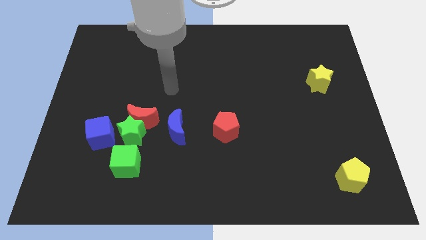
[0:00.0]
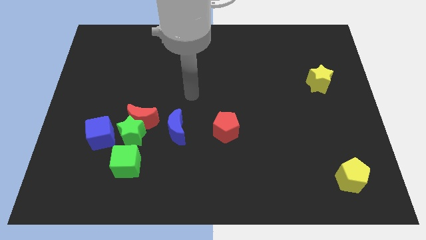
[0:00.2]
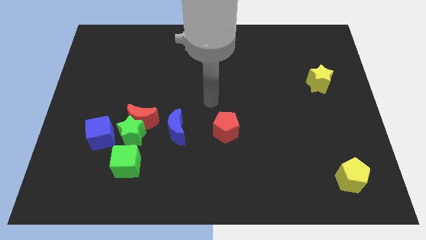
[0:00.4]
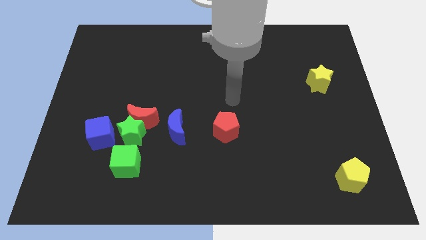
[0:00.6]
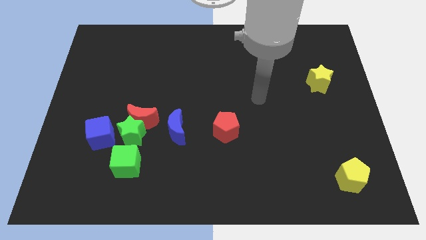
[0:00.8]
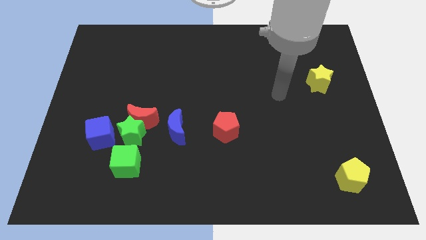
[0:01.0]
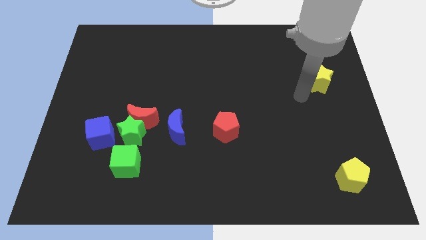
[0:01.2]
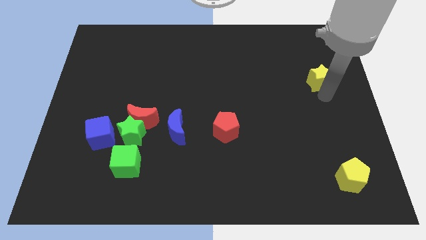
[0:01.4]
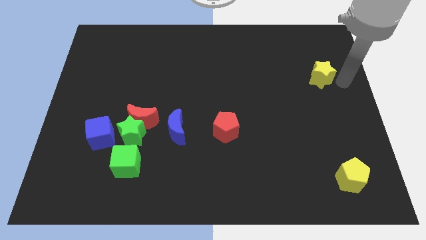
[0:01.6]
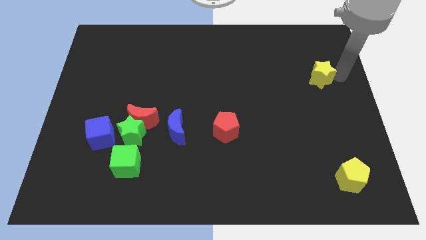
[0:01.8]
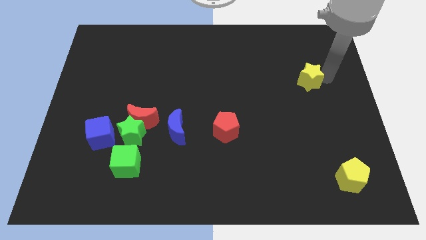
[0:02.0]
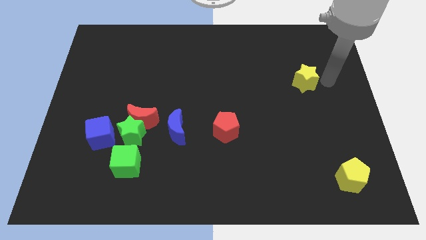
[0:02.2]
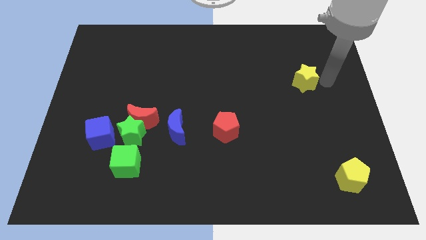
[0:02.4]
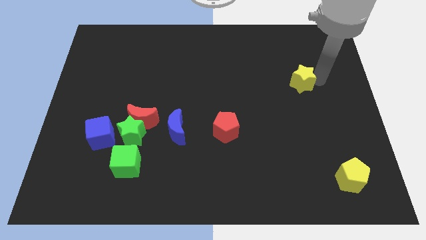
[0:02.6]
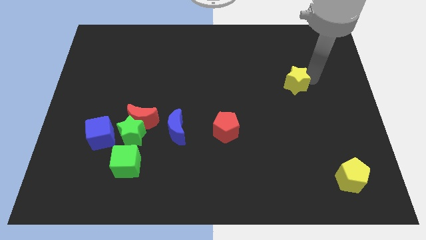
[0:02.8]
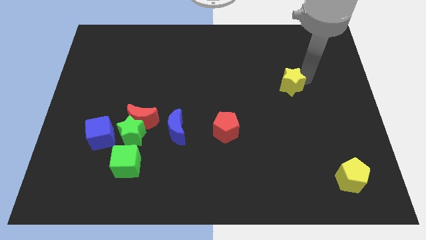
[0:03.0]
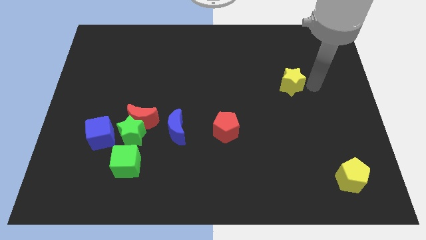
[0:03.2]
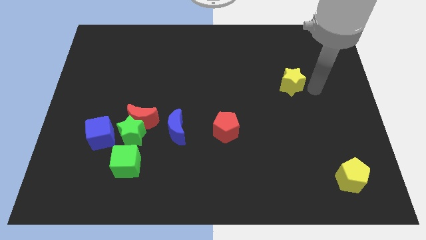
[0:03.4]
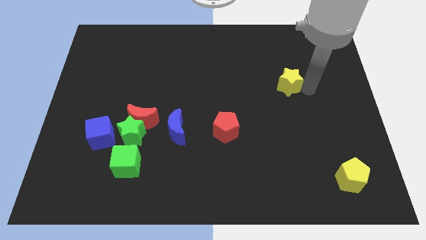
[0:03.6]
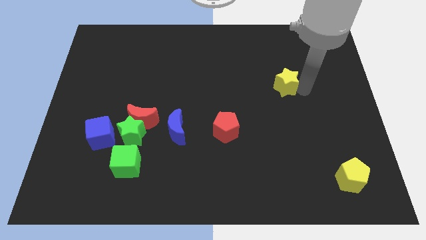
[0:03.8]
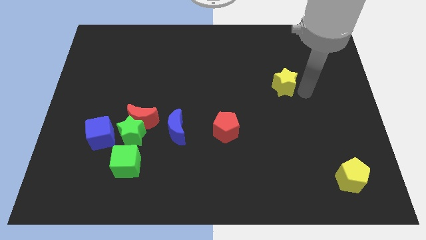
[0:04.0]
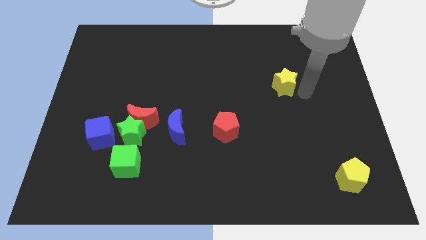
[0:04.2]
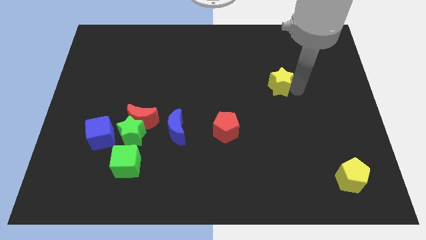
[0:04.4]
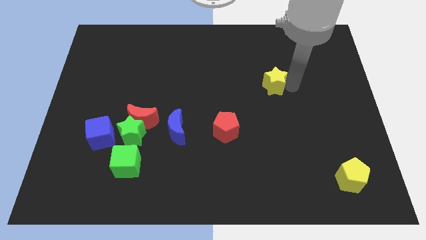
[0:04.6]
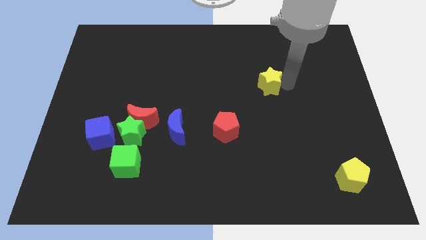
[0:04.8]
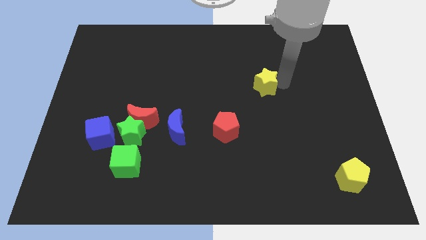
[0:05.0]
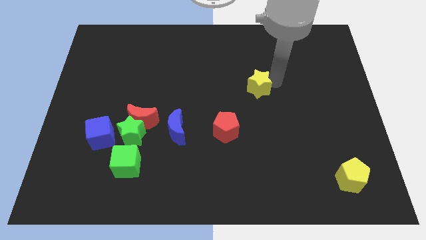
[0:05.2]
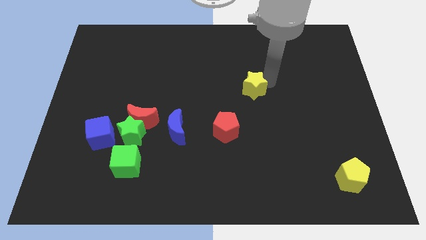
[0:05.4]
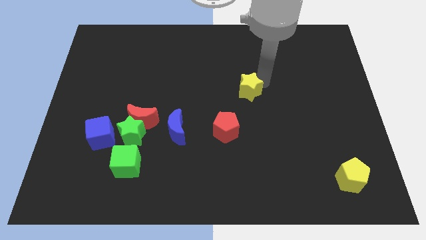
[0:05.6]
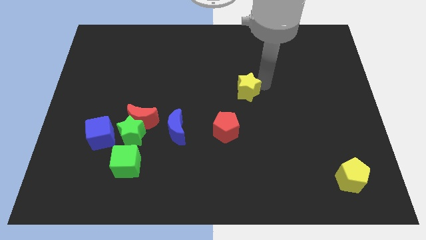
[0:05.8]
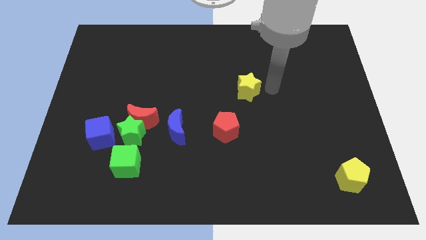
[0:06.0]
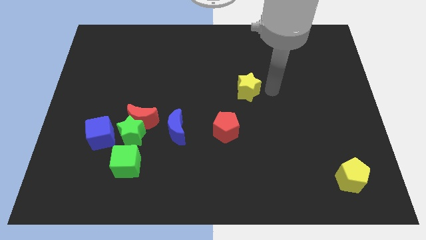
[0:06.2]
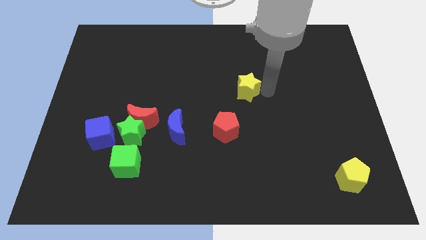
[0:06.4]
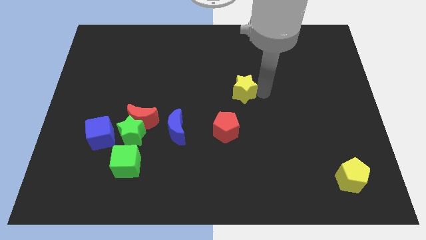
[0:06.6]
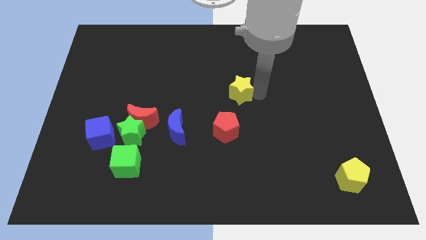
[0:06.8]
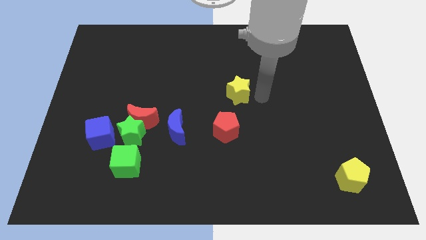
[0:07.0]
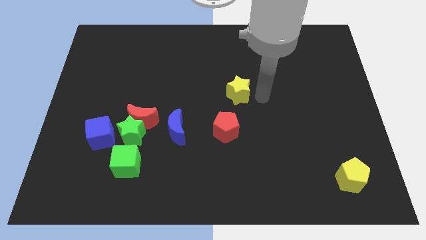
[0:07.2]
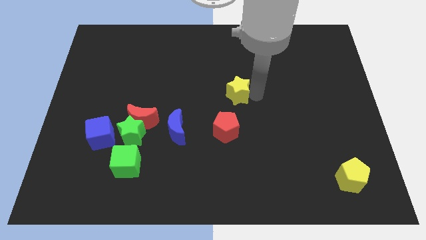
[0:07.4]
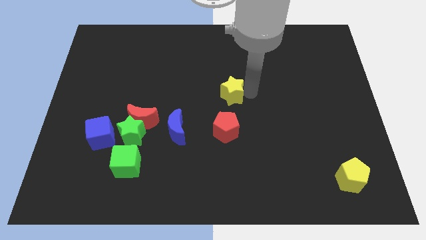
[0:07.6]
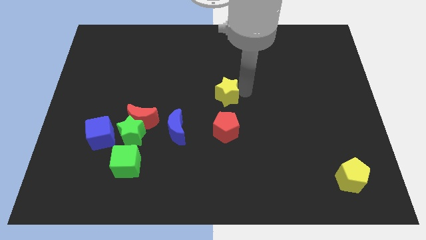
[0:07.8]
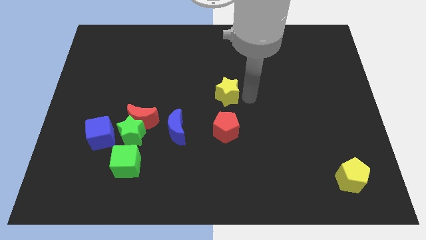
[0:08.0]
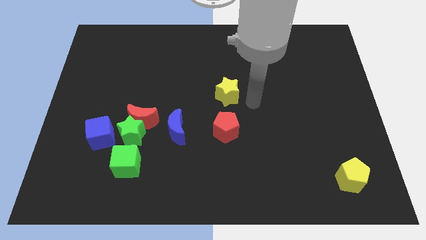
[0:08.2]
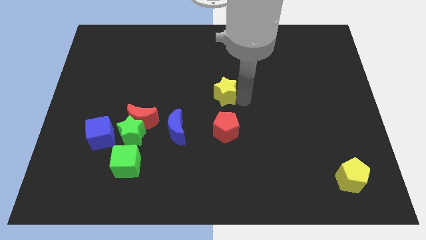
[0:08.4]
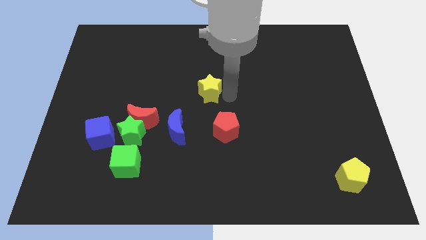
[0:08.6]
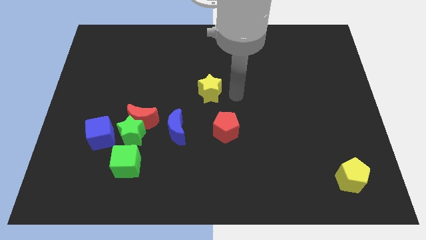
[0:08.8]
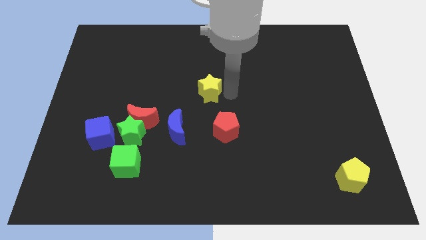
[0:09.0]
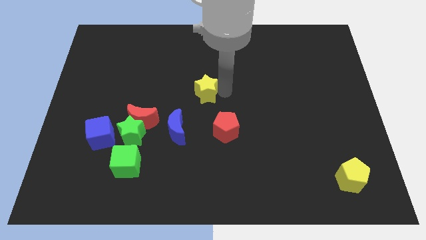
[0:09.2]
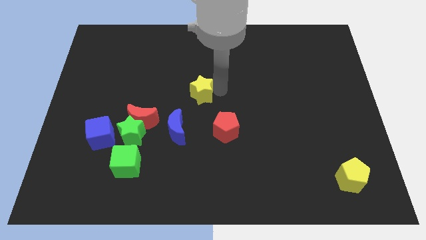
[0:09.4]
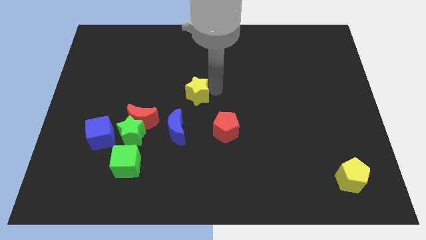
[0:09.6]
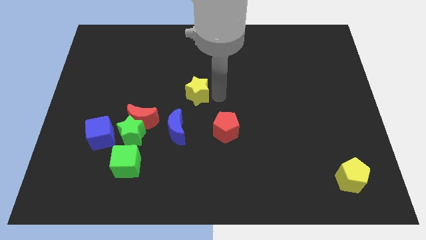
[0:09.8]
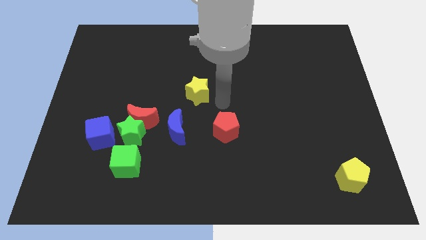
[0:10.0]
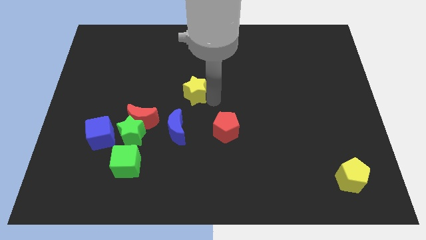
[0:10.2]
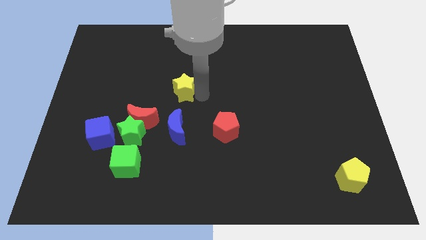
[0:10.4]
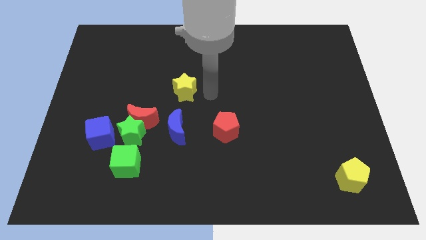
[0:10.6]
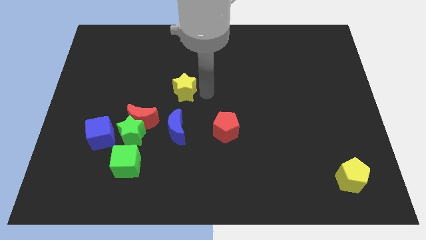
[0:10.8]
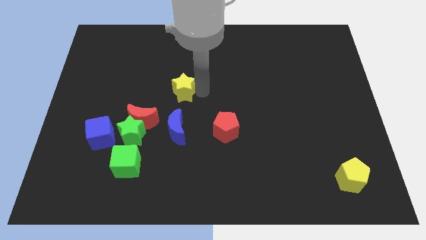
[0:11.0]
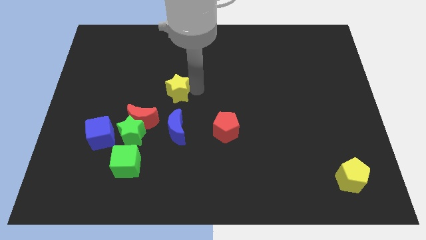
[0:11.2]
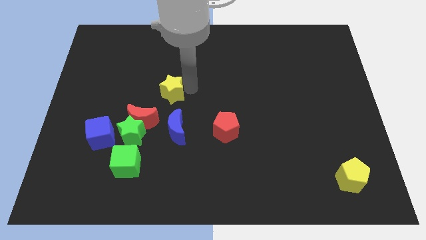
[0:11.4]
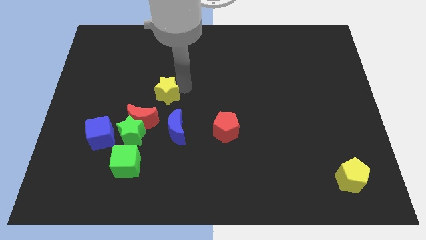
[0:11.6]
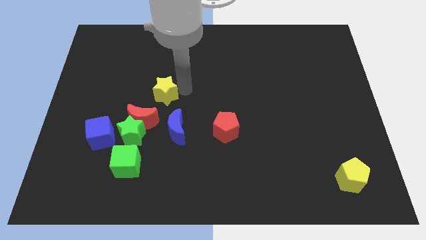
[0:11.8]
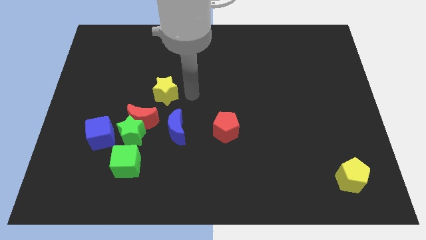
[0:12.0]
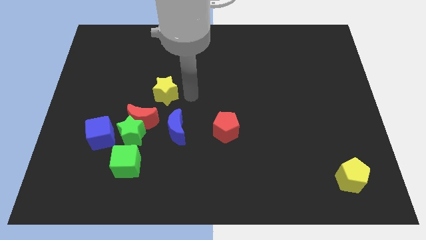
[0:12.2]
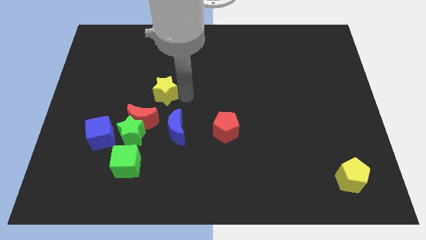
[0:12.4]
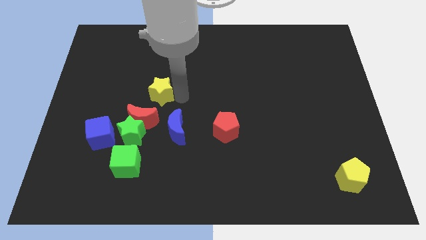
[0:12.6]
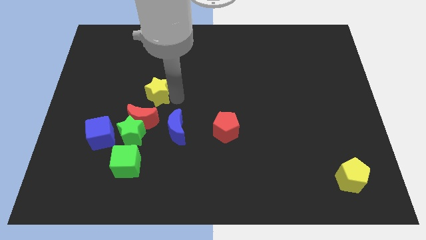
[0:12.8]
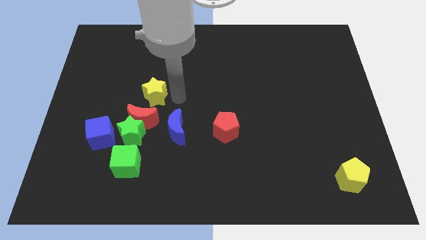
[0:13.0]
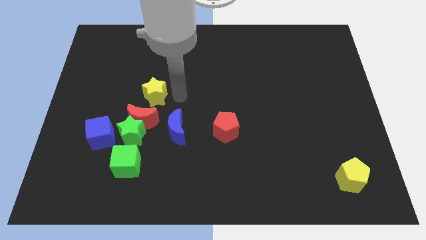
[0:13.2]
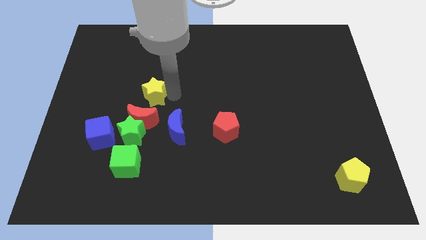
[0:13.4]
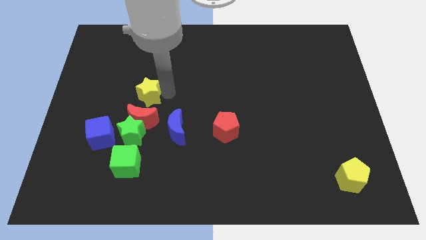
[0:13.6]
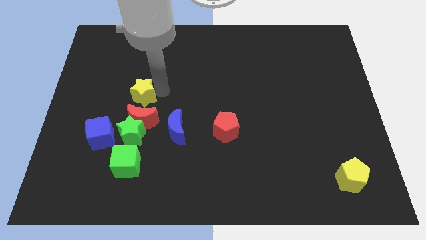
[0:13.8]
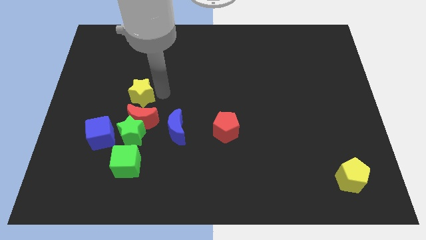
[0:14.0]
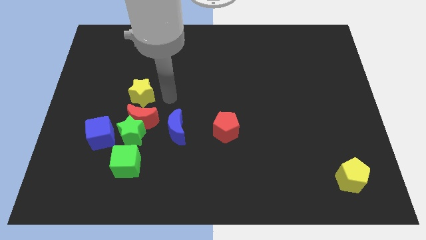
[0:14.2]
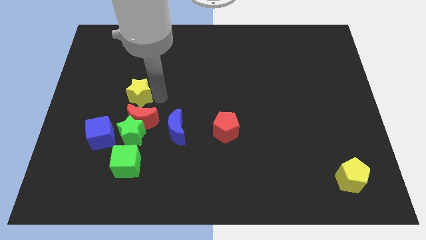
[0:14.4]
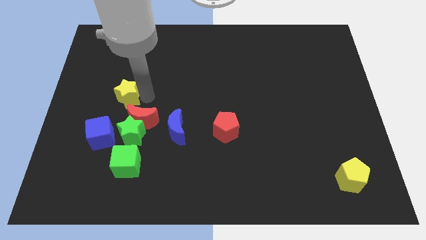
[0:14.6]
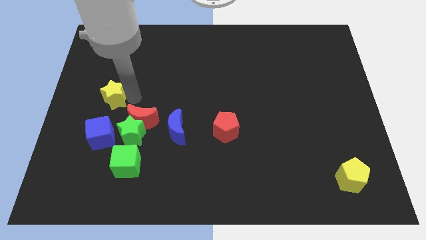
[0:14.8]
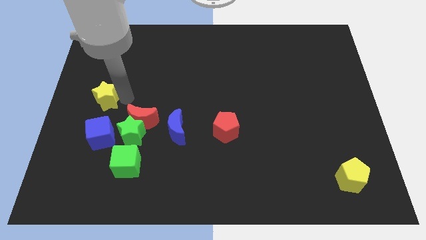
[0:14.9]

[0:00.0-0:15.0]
push the yellow star to the center left

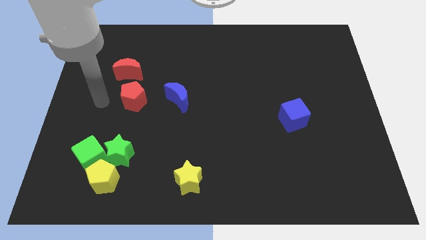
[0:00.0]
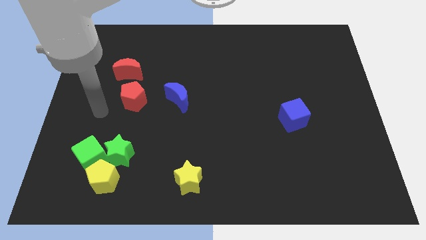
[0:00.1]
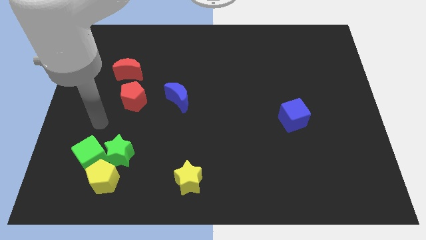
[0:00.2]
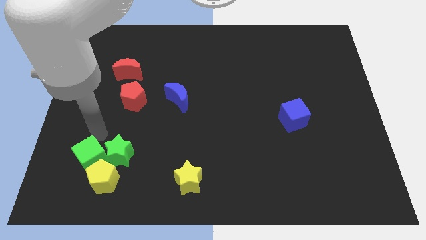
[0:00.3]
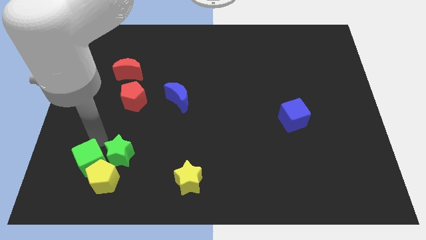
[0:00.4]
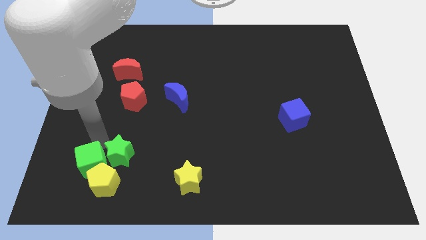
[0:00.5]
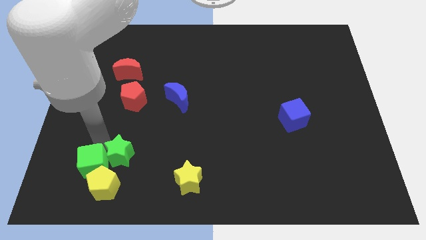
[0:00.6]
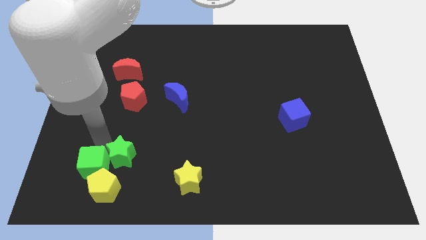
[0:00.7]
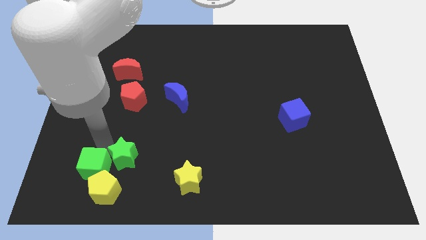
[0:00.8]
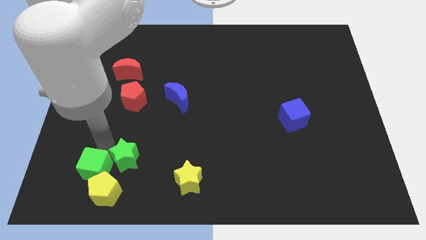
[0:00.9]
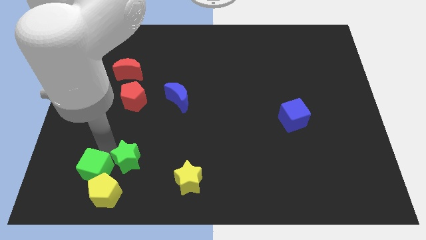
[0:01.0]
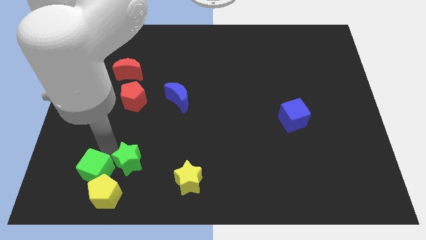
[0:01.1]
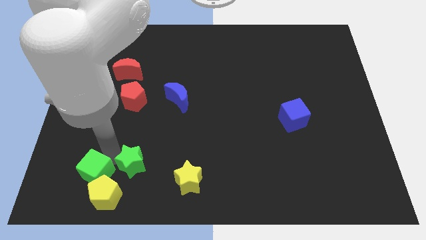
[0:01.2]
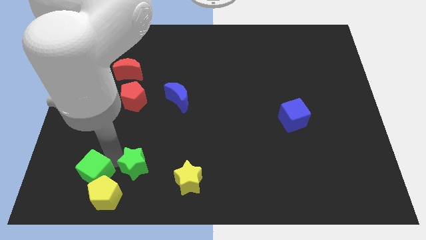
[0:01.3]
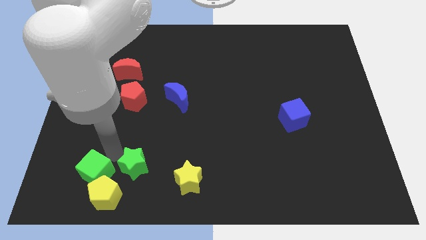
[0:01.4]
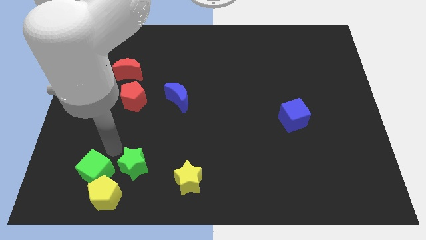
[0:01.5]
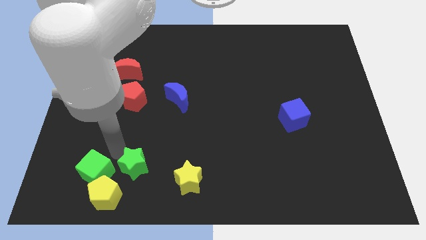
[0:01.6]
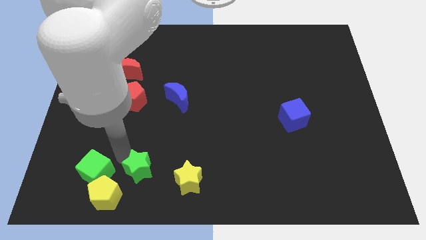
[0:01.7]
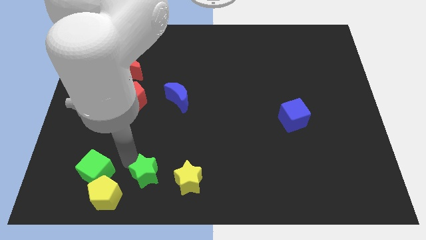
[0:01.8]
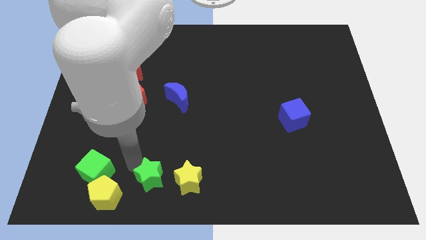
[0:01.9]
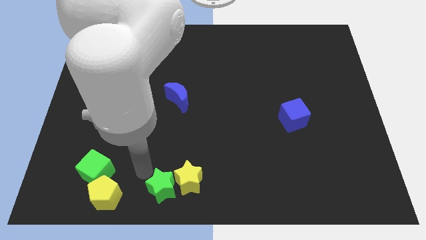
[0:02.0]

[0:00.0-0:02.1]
put the green star to the bottom side
